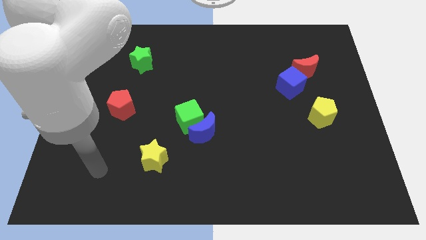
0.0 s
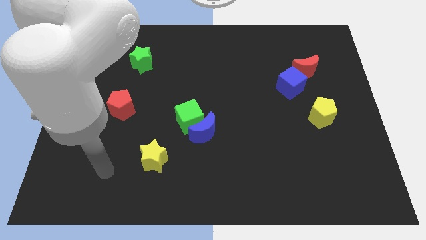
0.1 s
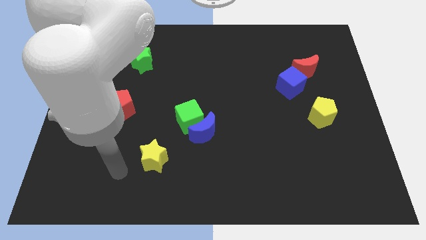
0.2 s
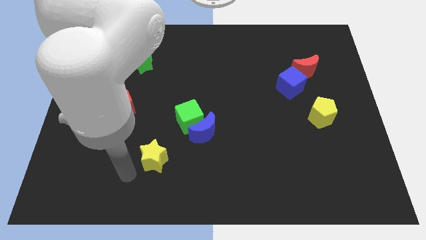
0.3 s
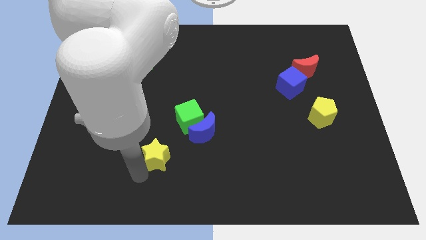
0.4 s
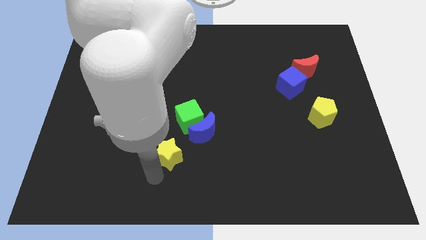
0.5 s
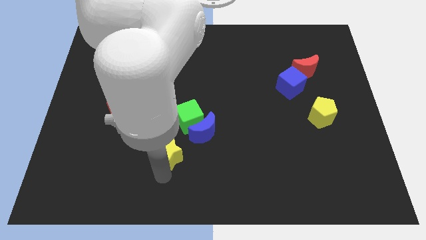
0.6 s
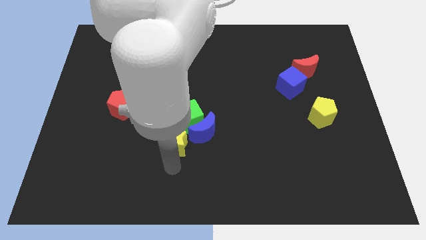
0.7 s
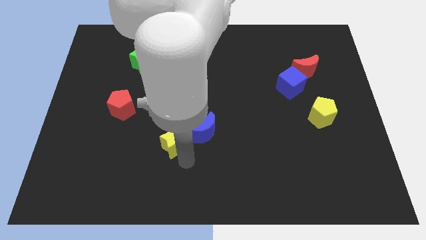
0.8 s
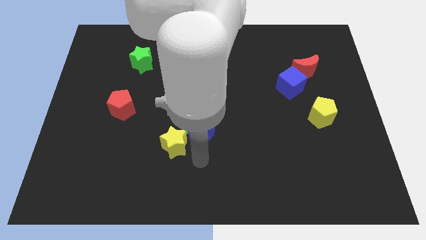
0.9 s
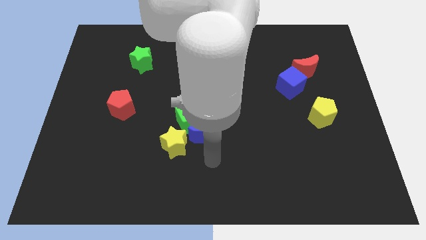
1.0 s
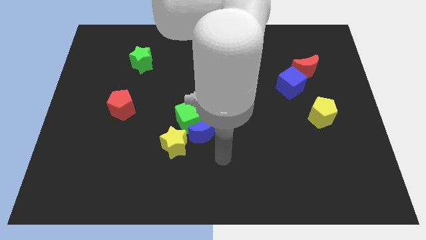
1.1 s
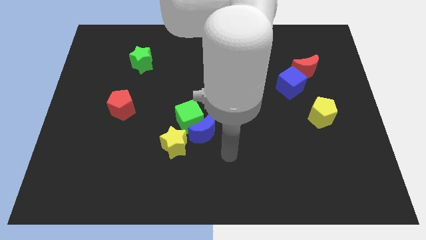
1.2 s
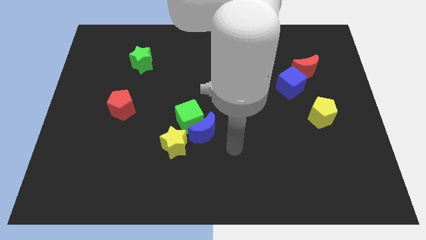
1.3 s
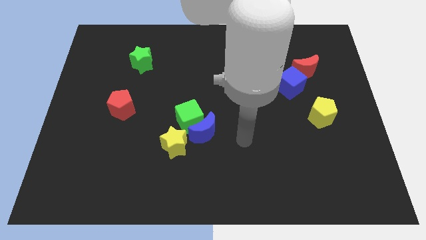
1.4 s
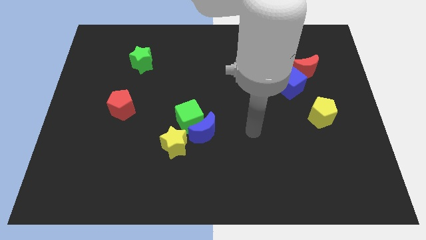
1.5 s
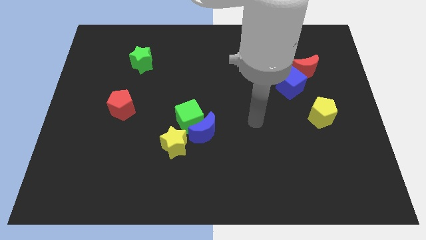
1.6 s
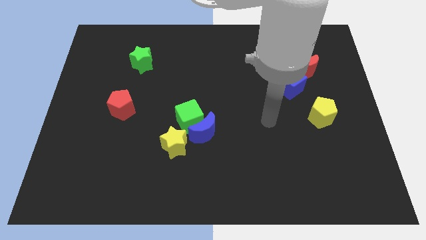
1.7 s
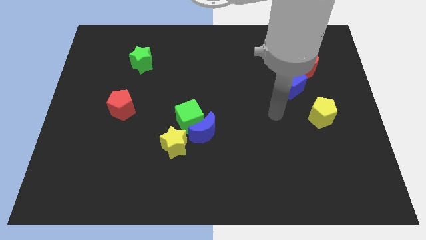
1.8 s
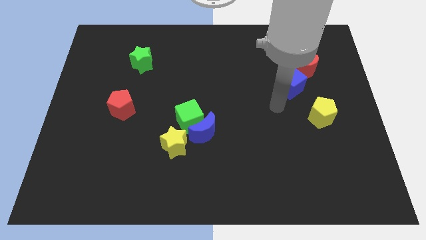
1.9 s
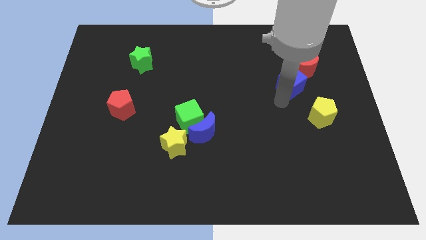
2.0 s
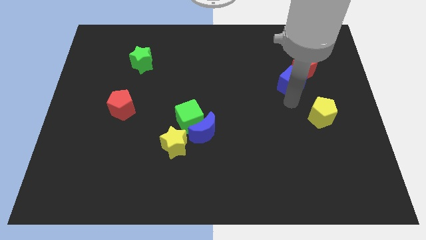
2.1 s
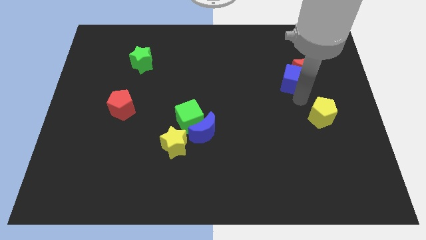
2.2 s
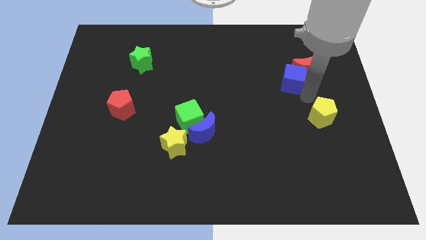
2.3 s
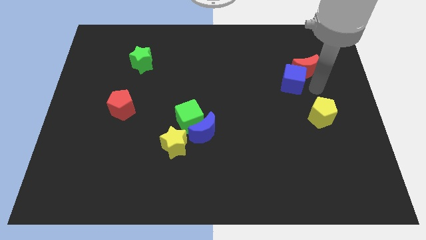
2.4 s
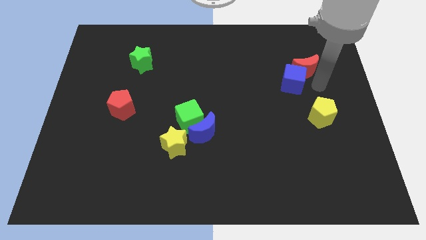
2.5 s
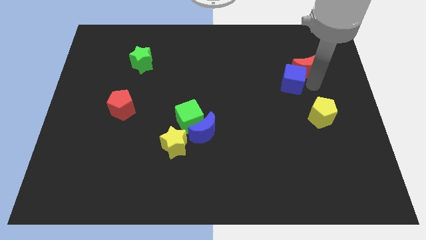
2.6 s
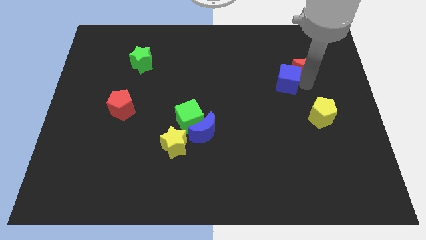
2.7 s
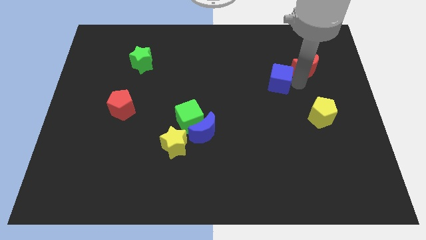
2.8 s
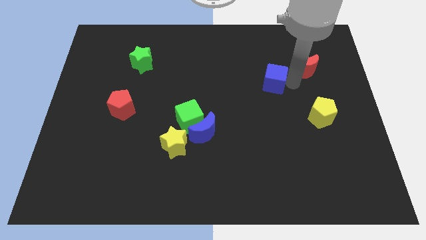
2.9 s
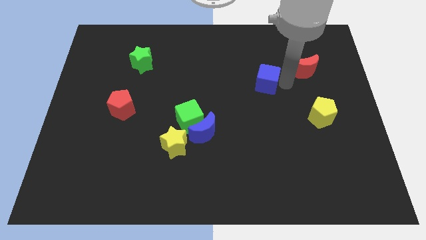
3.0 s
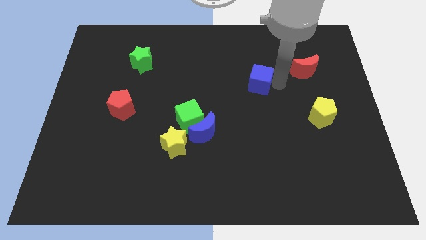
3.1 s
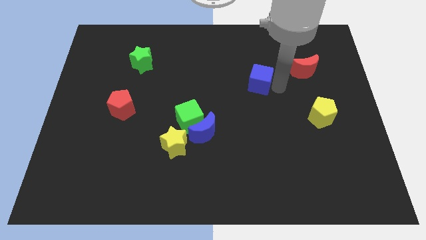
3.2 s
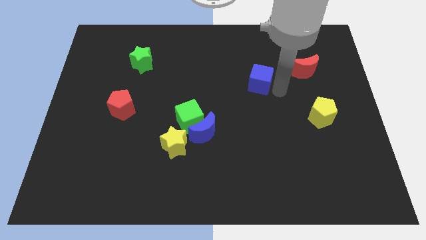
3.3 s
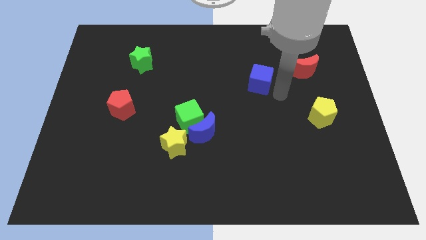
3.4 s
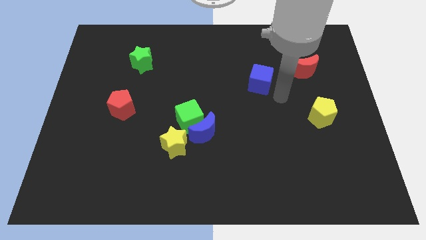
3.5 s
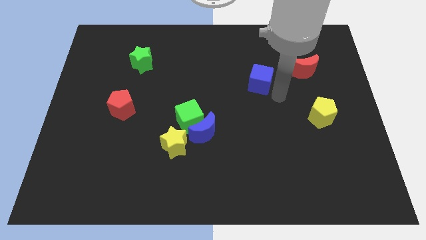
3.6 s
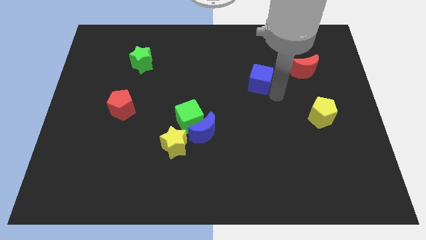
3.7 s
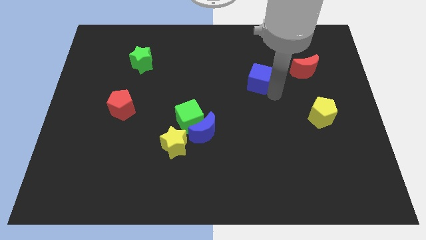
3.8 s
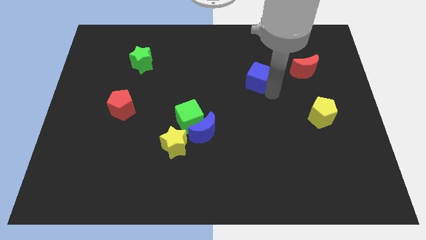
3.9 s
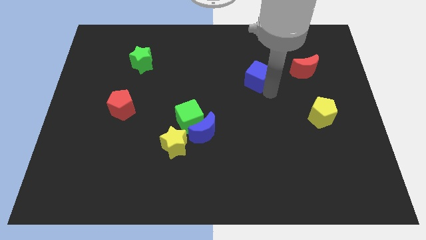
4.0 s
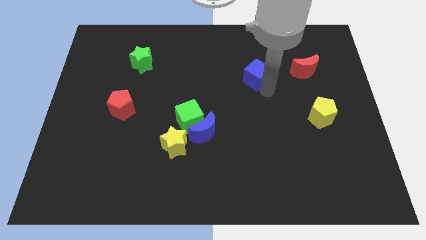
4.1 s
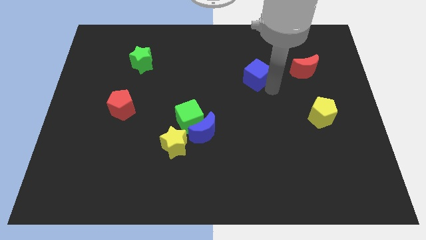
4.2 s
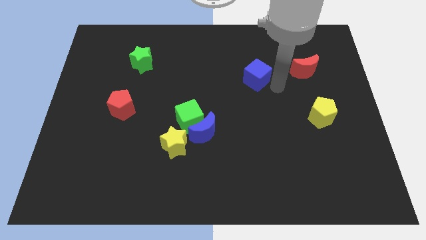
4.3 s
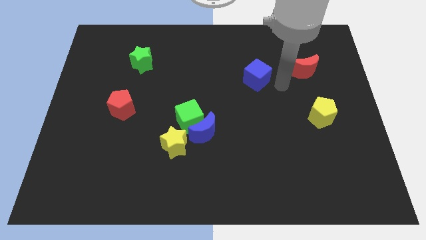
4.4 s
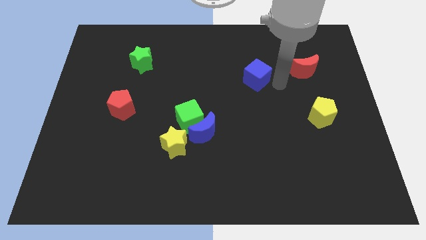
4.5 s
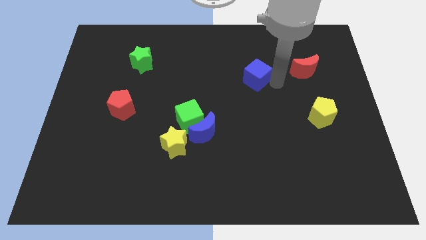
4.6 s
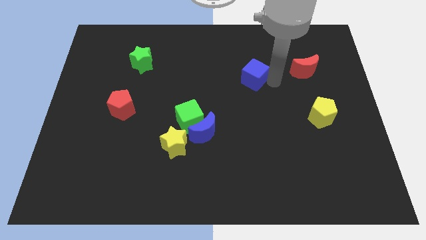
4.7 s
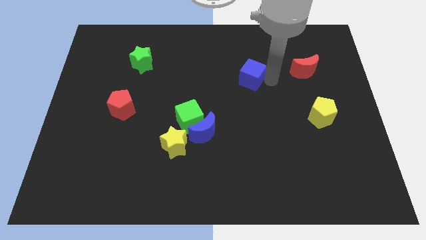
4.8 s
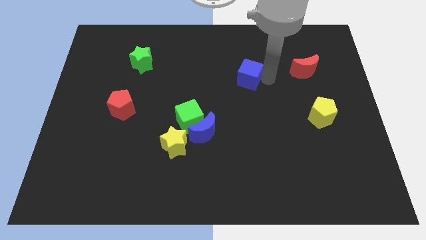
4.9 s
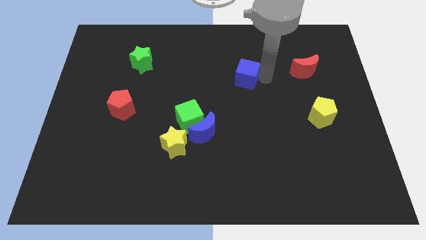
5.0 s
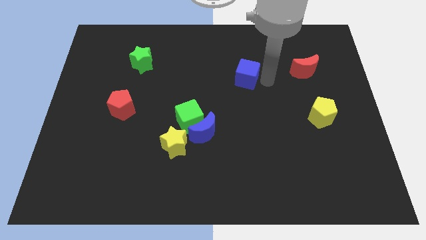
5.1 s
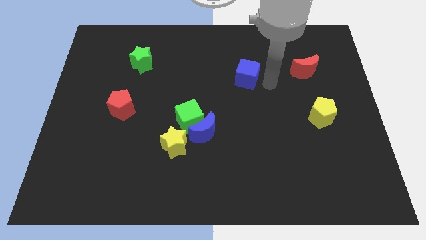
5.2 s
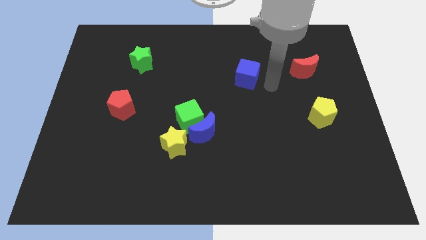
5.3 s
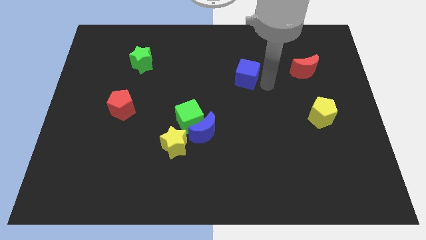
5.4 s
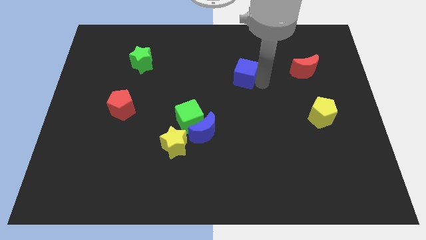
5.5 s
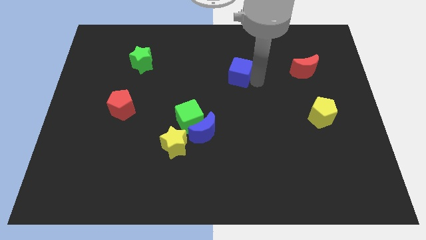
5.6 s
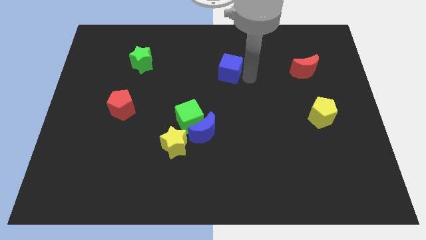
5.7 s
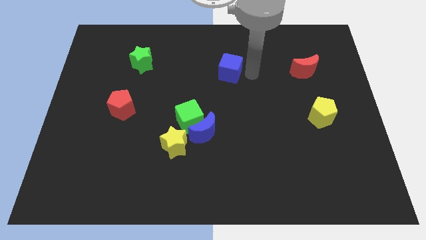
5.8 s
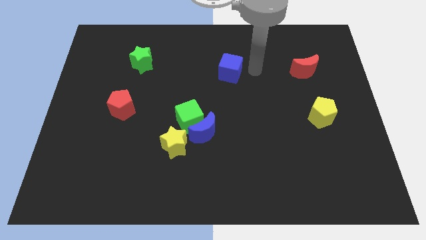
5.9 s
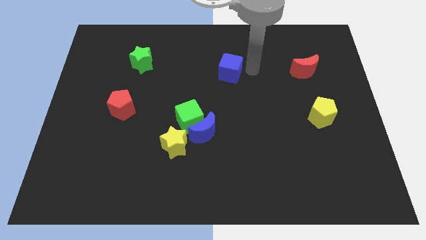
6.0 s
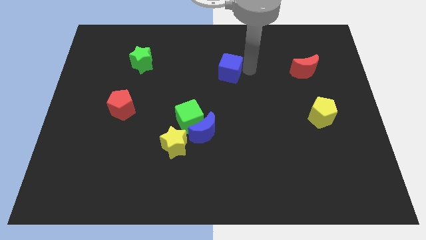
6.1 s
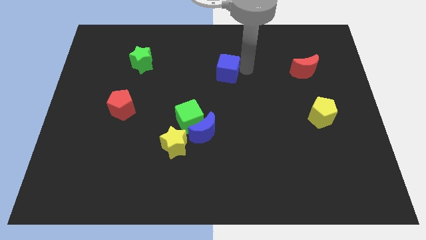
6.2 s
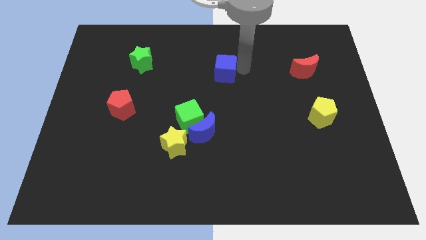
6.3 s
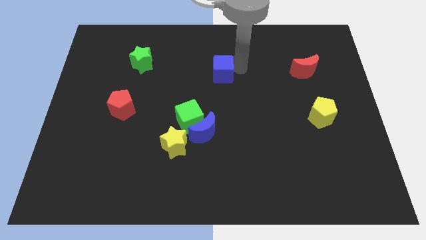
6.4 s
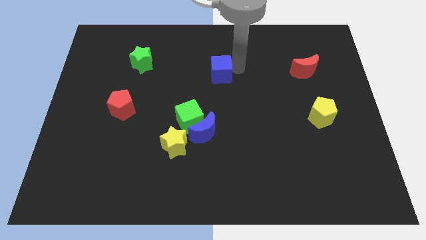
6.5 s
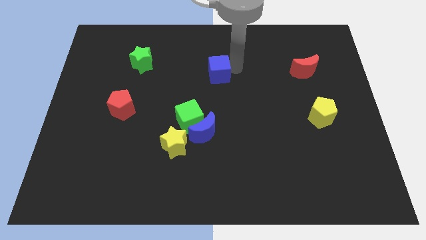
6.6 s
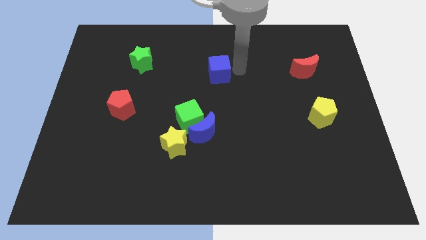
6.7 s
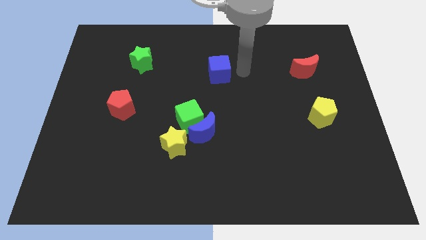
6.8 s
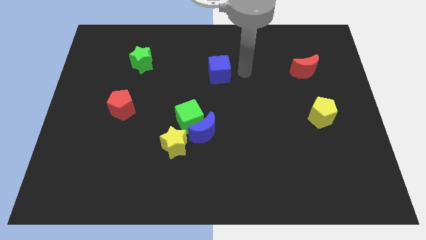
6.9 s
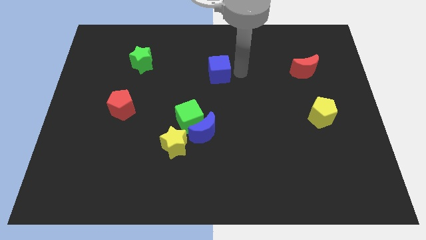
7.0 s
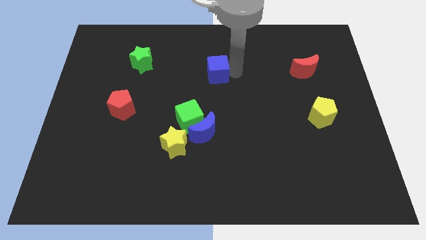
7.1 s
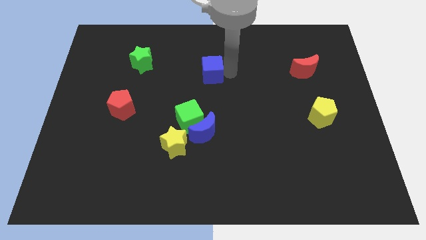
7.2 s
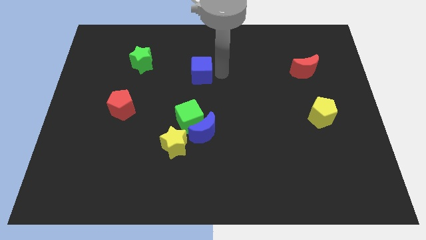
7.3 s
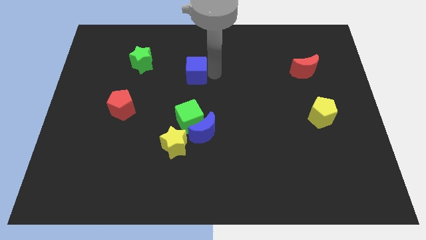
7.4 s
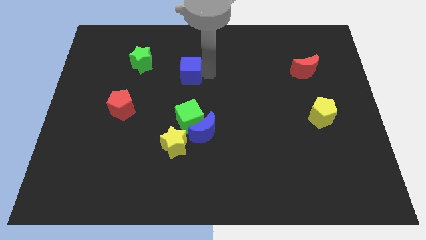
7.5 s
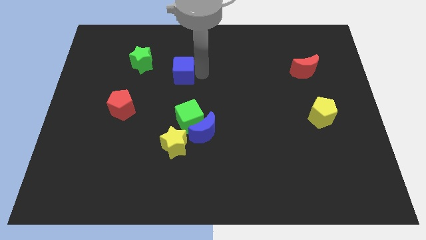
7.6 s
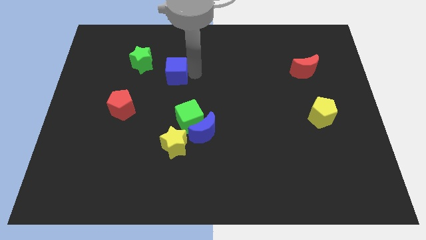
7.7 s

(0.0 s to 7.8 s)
put the blue cube to the bottom right of the green star
